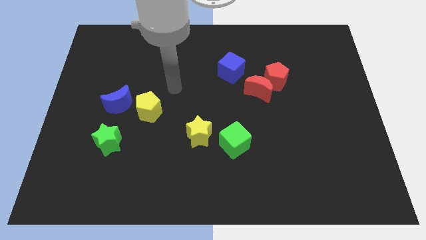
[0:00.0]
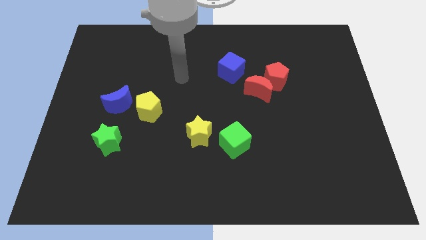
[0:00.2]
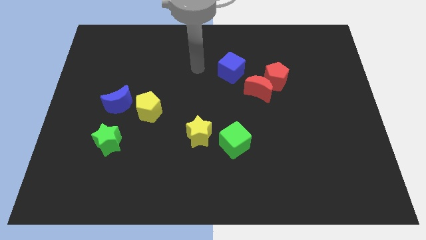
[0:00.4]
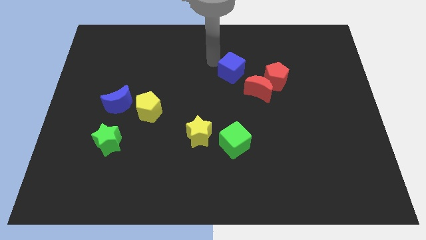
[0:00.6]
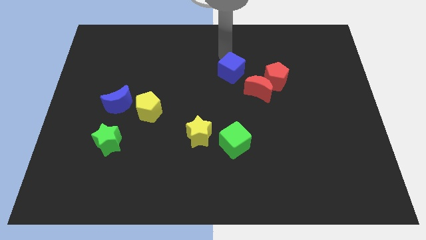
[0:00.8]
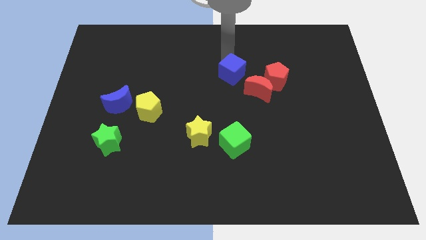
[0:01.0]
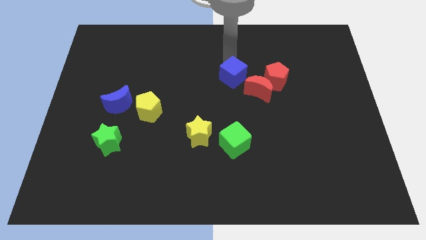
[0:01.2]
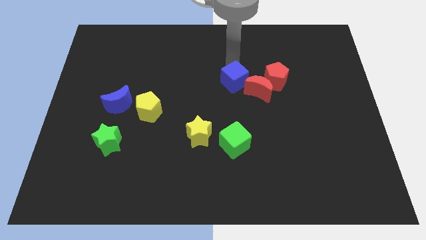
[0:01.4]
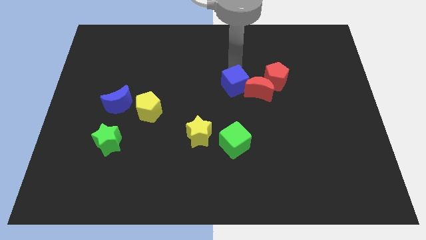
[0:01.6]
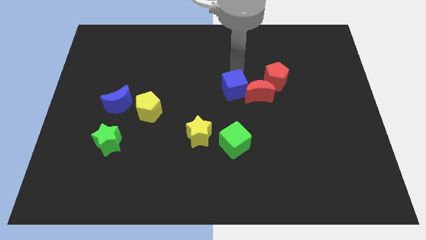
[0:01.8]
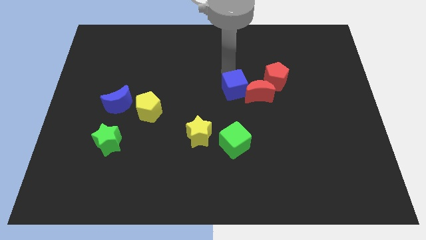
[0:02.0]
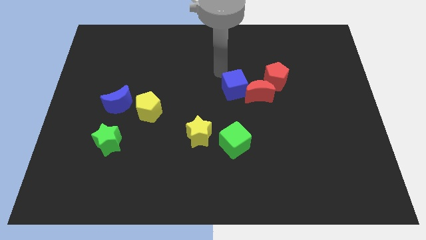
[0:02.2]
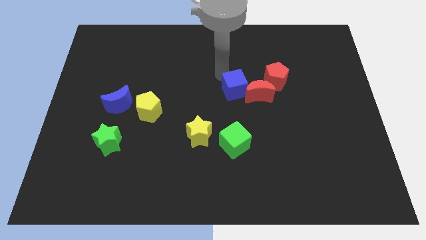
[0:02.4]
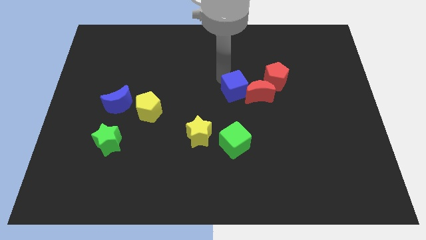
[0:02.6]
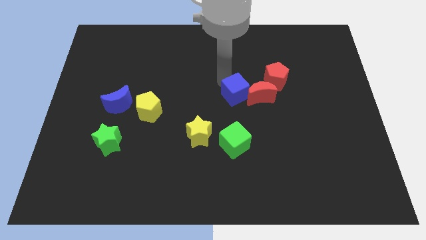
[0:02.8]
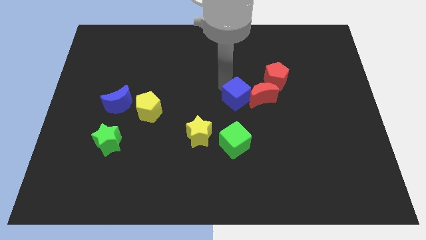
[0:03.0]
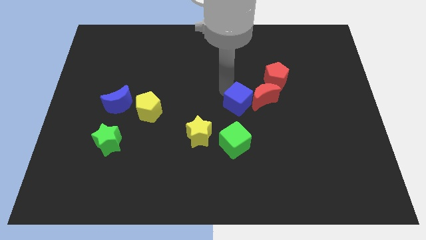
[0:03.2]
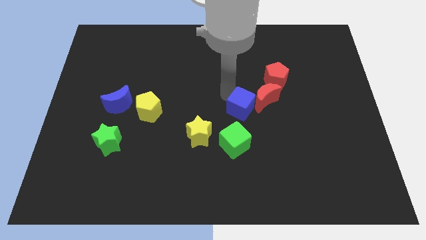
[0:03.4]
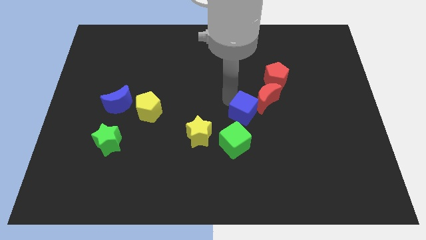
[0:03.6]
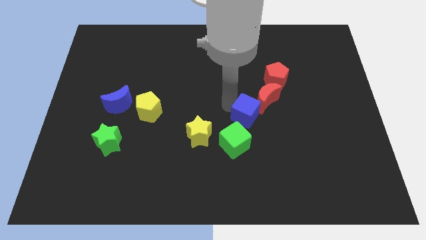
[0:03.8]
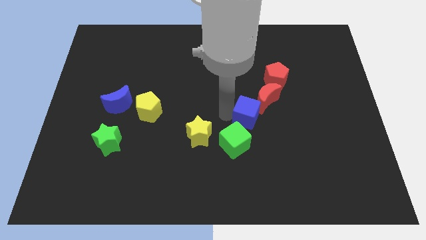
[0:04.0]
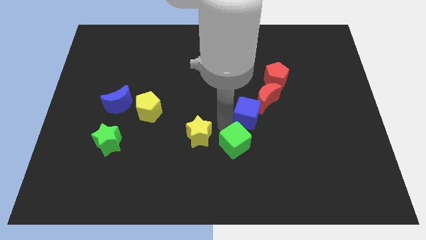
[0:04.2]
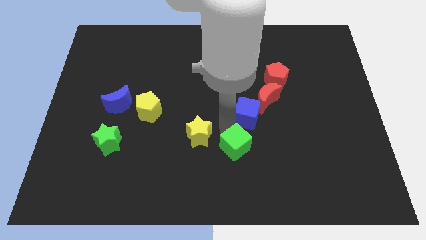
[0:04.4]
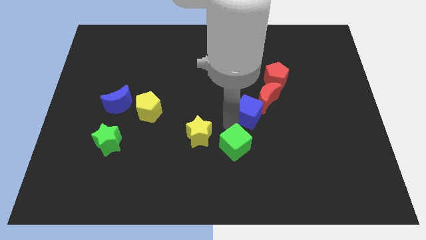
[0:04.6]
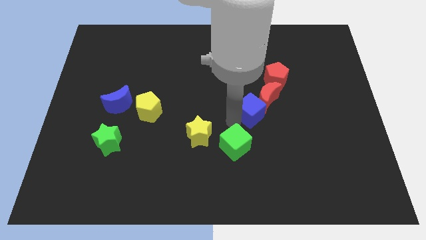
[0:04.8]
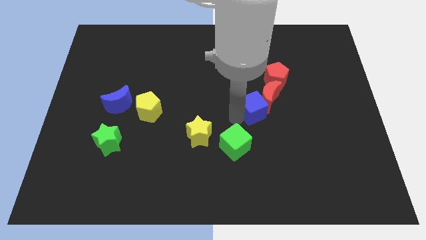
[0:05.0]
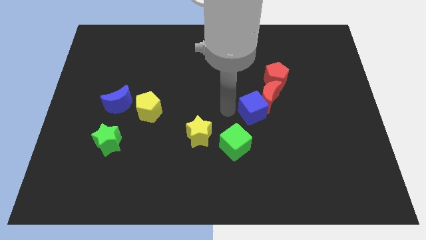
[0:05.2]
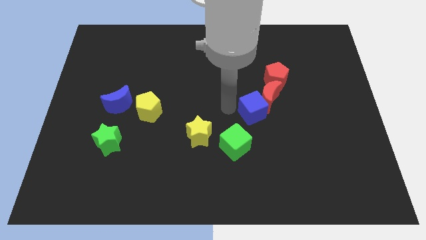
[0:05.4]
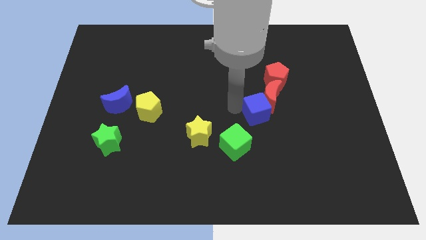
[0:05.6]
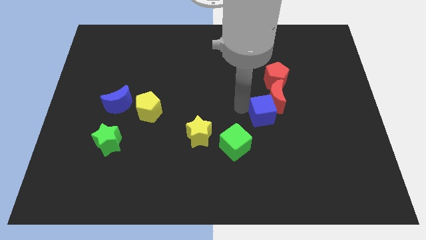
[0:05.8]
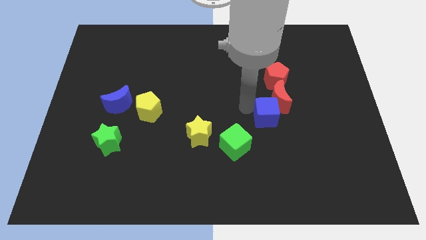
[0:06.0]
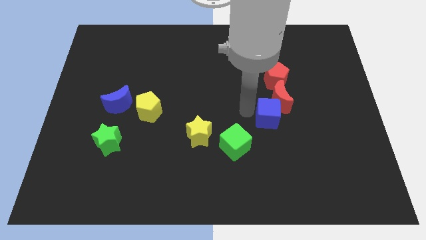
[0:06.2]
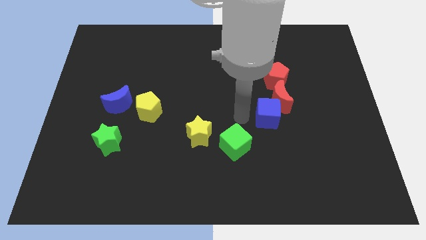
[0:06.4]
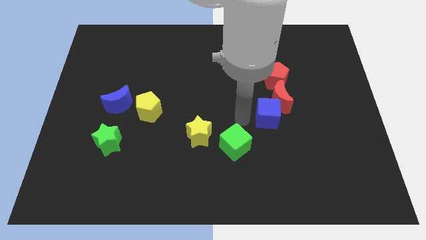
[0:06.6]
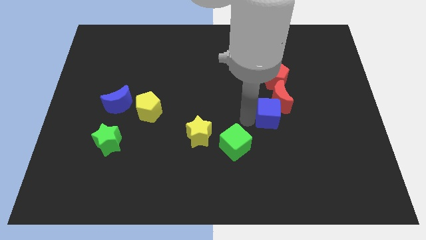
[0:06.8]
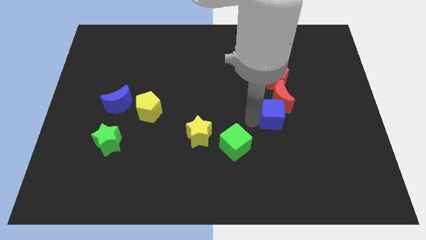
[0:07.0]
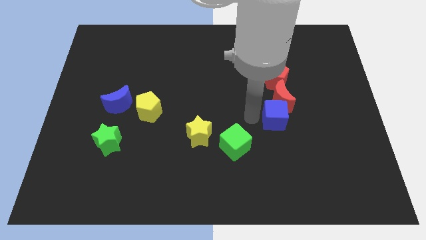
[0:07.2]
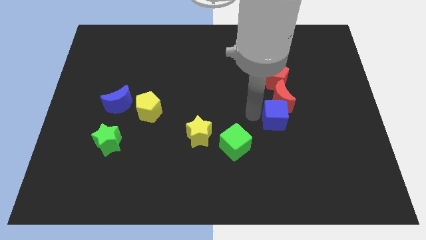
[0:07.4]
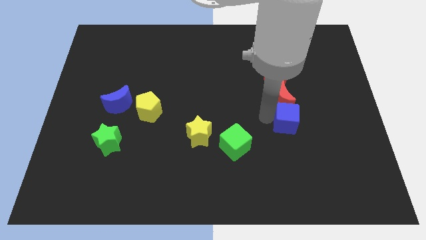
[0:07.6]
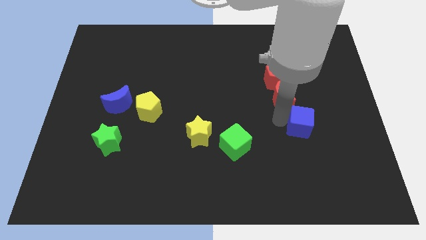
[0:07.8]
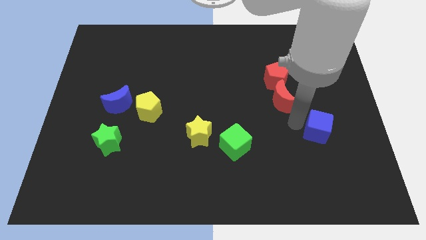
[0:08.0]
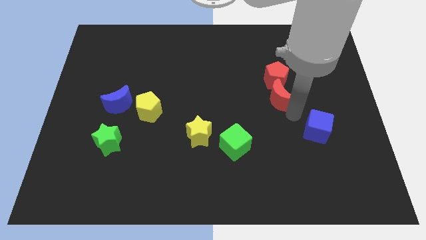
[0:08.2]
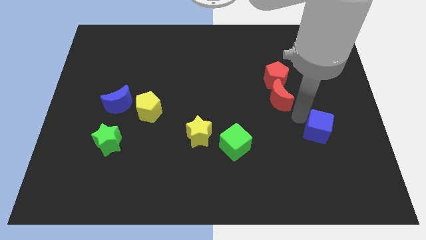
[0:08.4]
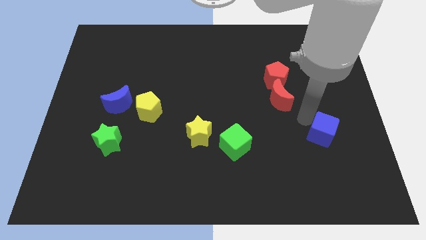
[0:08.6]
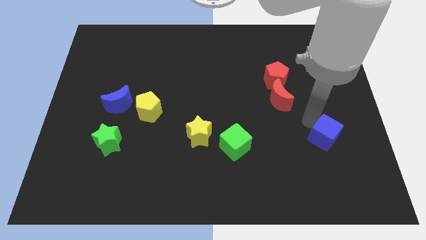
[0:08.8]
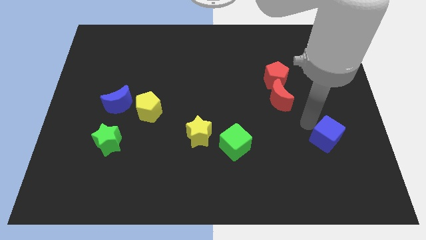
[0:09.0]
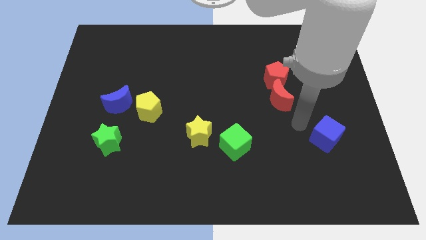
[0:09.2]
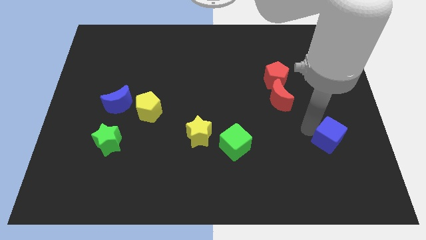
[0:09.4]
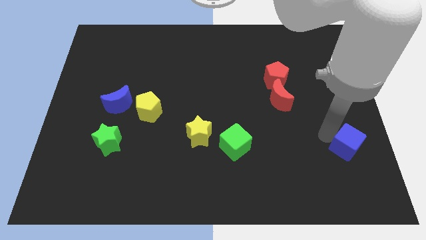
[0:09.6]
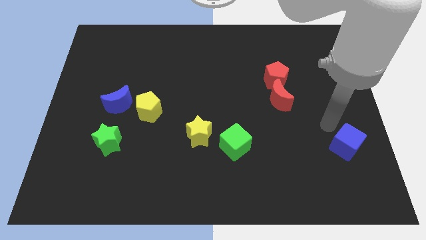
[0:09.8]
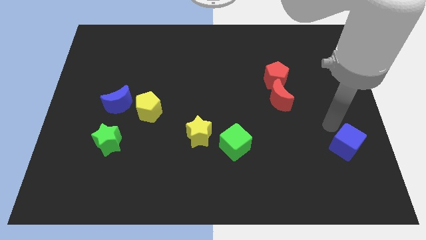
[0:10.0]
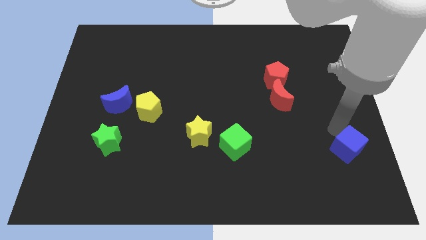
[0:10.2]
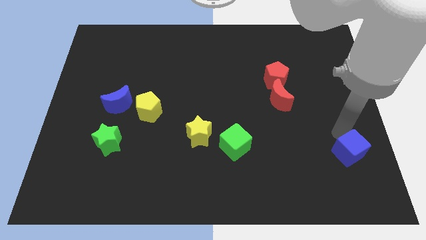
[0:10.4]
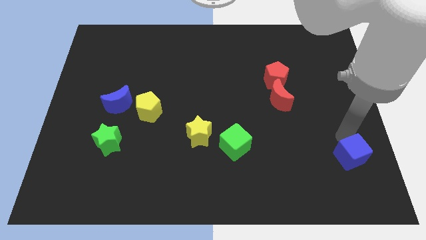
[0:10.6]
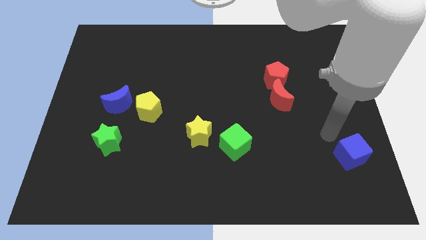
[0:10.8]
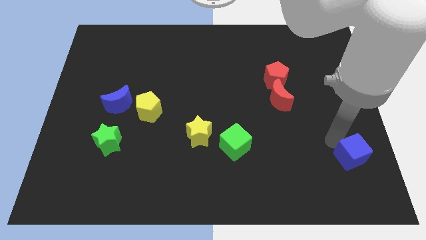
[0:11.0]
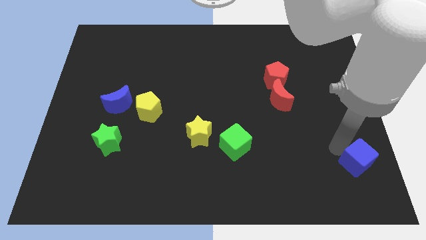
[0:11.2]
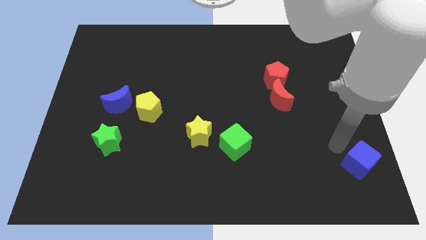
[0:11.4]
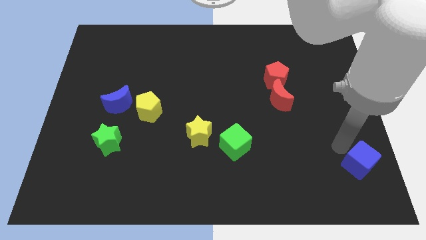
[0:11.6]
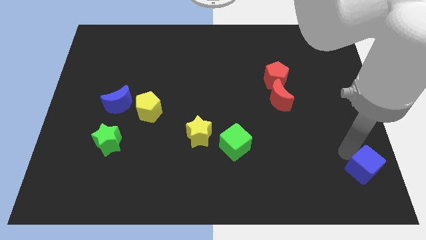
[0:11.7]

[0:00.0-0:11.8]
move the blue cube to the bottom right corner

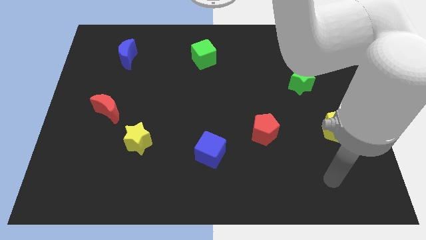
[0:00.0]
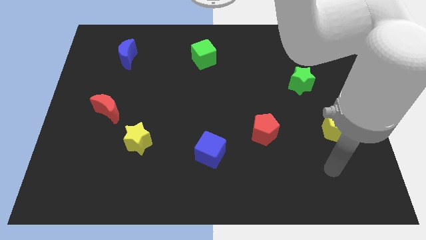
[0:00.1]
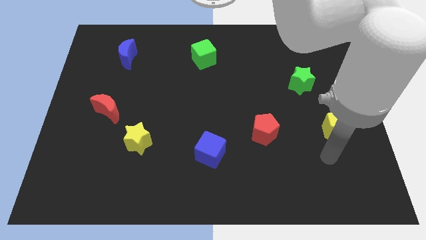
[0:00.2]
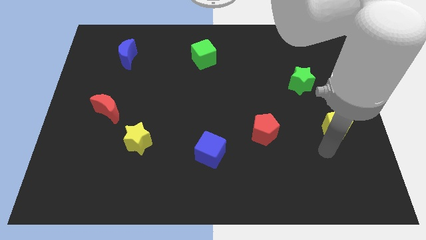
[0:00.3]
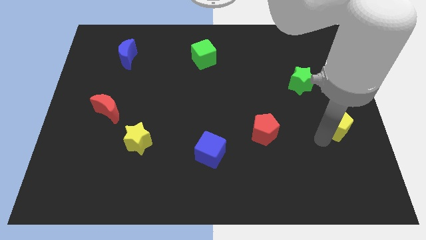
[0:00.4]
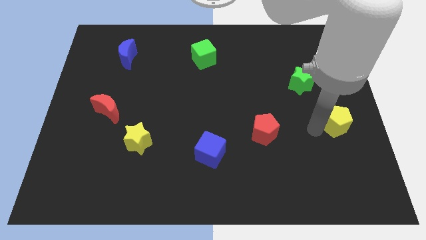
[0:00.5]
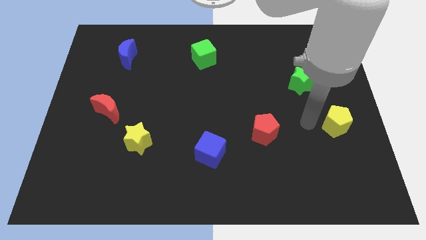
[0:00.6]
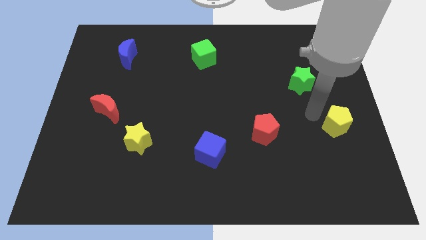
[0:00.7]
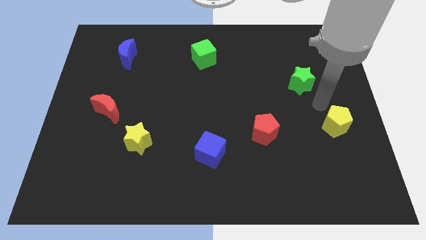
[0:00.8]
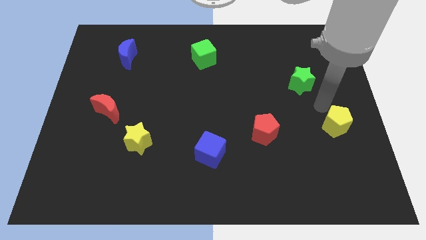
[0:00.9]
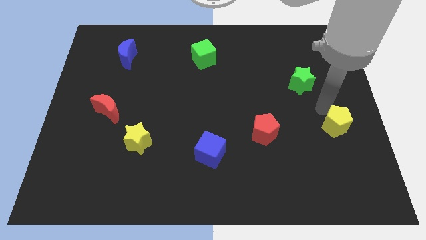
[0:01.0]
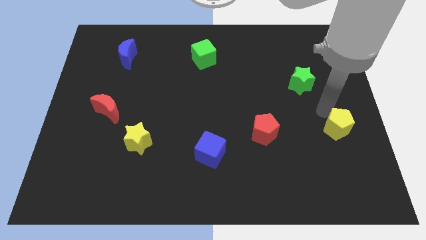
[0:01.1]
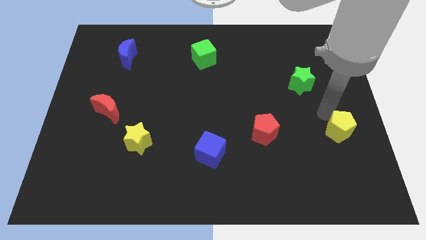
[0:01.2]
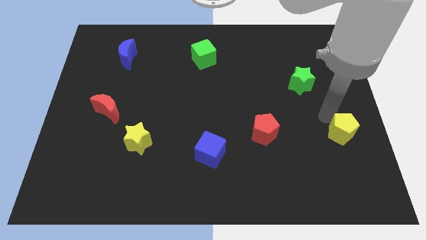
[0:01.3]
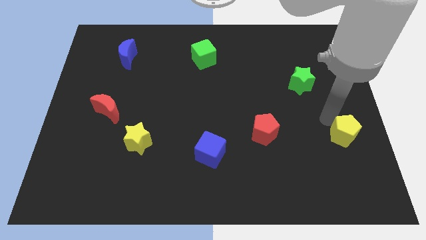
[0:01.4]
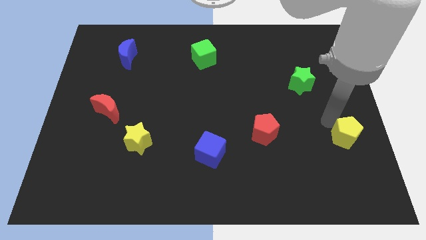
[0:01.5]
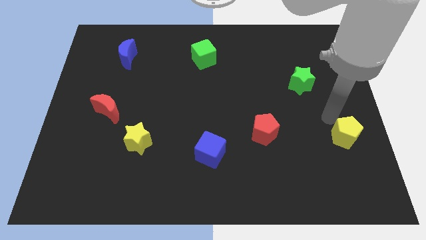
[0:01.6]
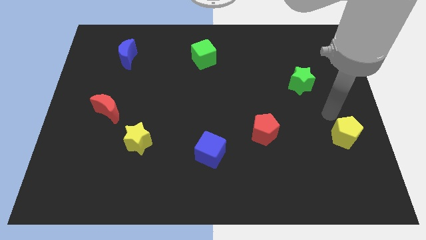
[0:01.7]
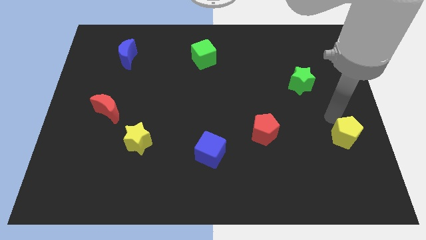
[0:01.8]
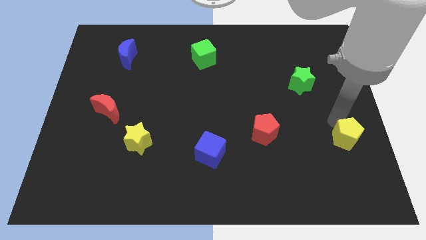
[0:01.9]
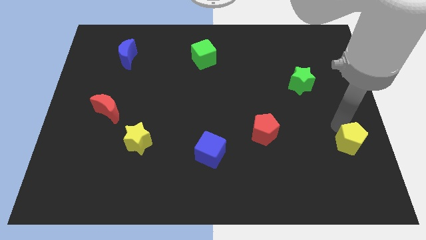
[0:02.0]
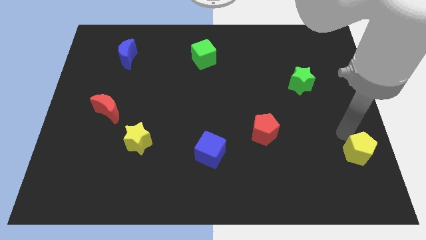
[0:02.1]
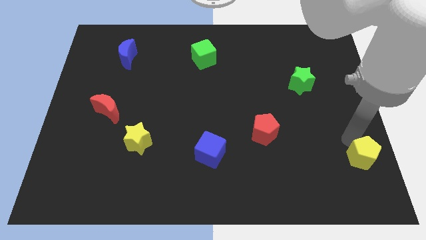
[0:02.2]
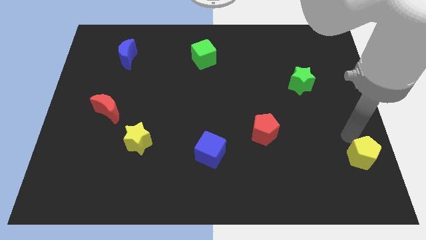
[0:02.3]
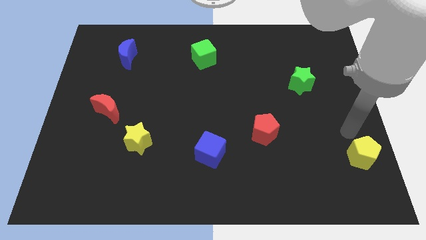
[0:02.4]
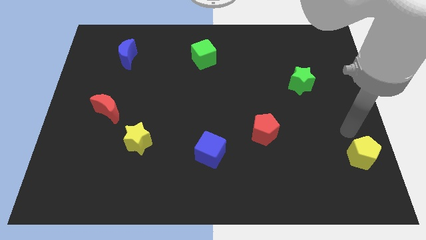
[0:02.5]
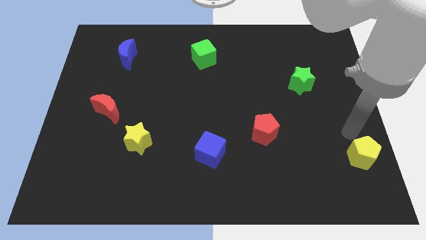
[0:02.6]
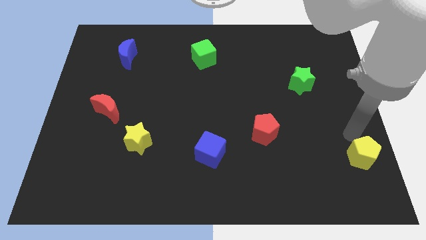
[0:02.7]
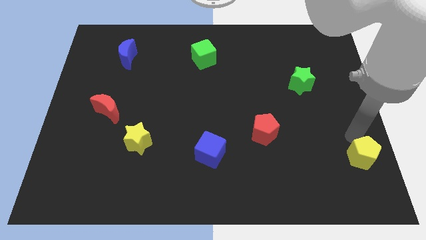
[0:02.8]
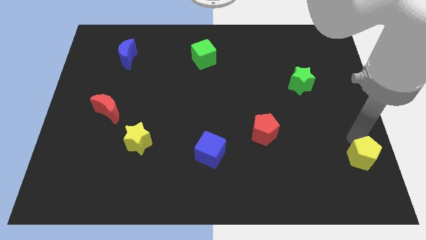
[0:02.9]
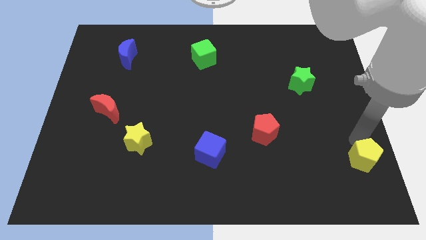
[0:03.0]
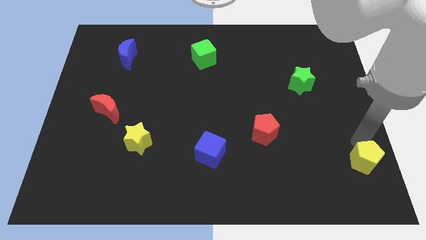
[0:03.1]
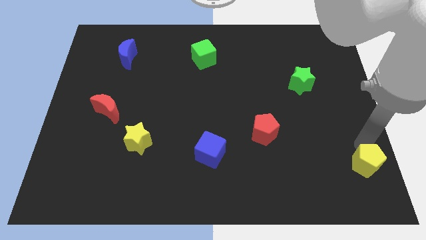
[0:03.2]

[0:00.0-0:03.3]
slide the yellow pentagon to the bottom right
